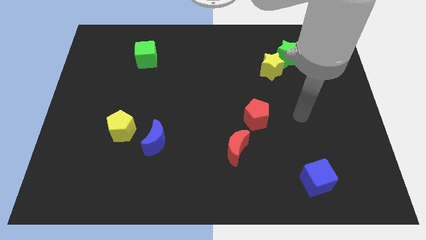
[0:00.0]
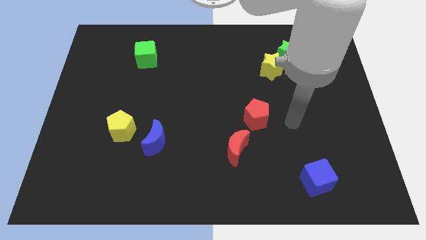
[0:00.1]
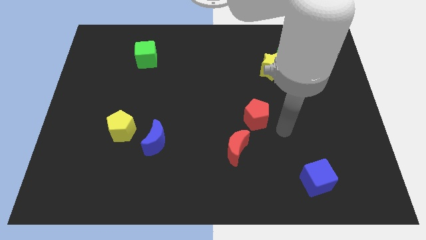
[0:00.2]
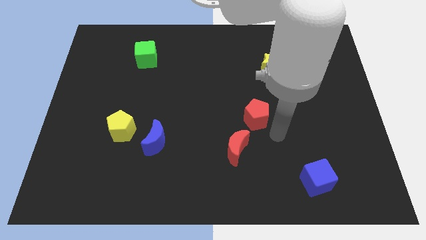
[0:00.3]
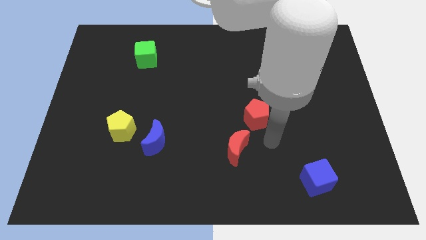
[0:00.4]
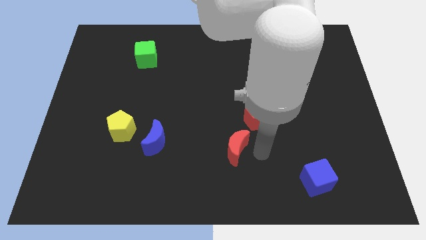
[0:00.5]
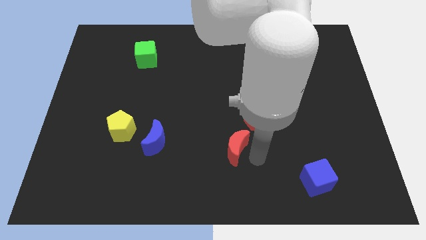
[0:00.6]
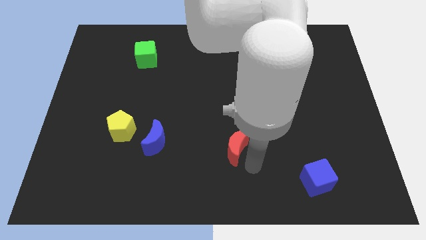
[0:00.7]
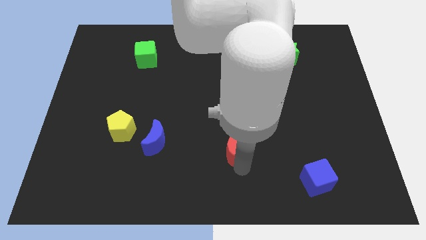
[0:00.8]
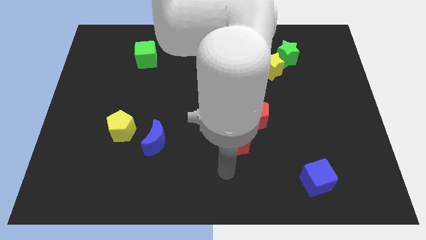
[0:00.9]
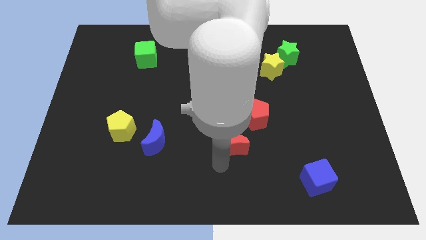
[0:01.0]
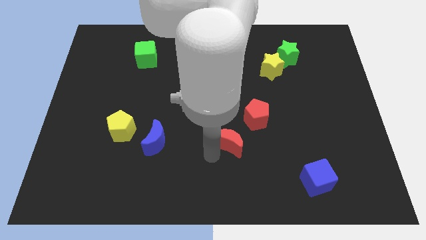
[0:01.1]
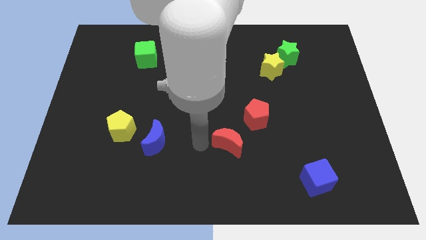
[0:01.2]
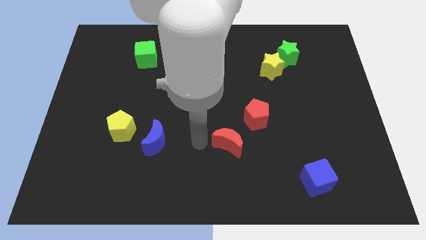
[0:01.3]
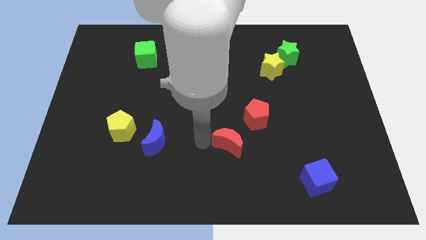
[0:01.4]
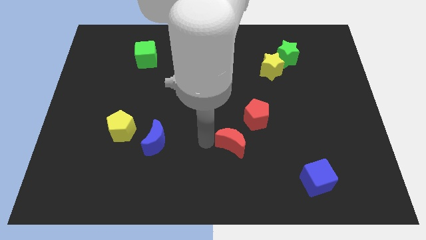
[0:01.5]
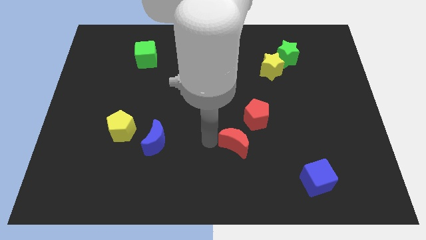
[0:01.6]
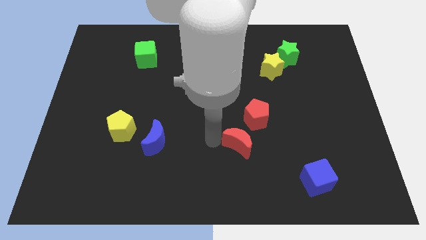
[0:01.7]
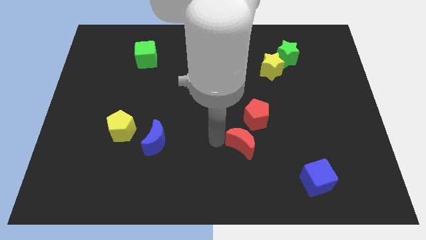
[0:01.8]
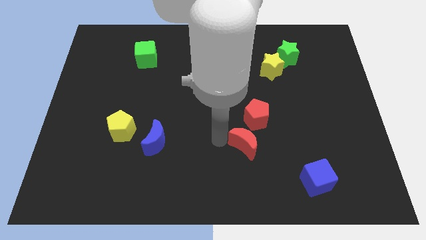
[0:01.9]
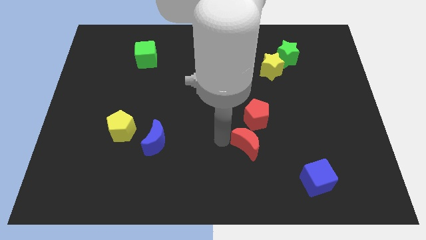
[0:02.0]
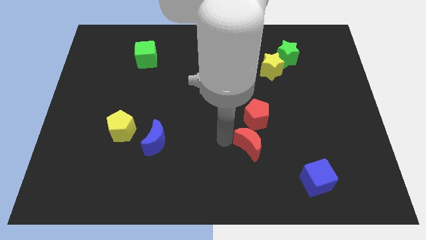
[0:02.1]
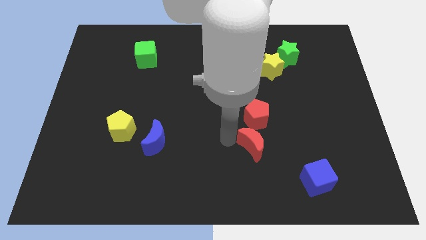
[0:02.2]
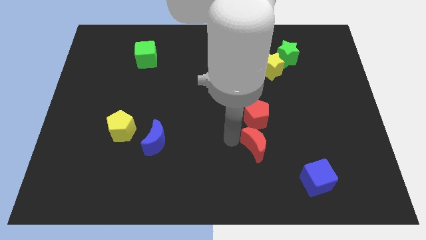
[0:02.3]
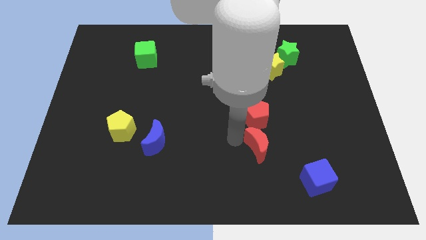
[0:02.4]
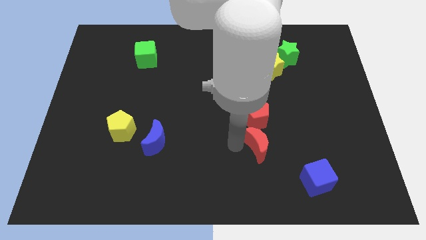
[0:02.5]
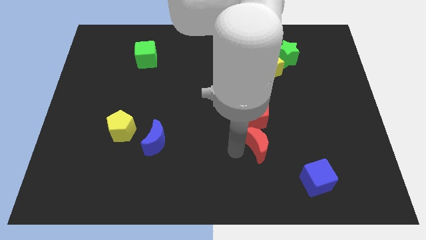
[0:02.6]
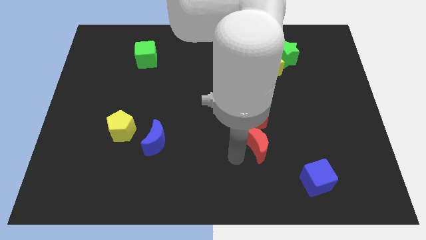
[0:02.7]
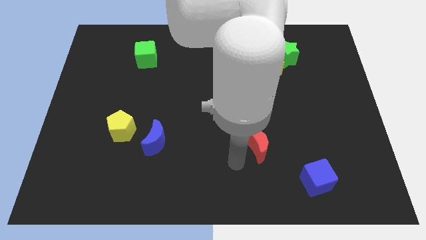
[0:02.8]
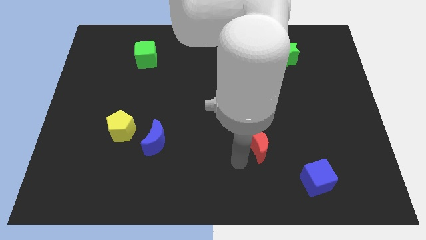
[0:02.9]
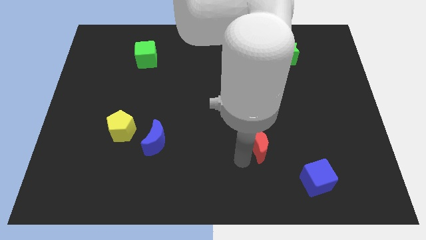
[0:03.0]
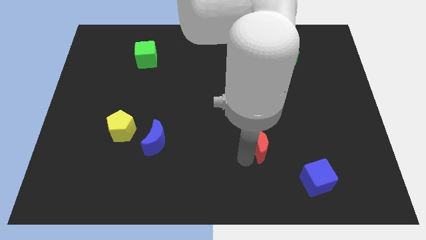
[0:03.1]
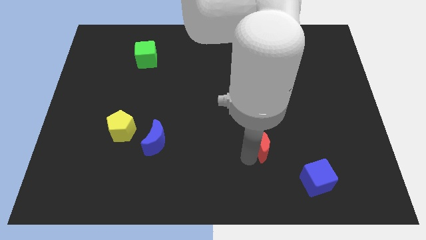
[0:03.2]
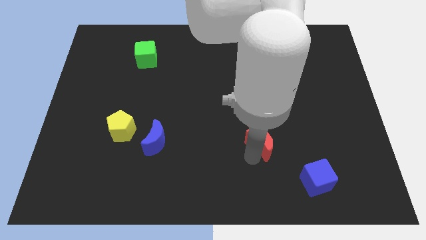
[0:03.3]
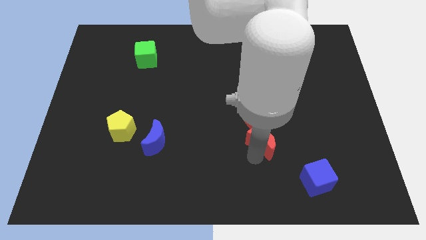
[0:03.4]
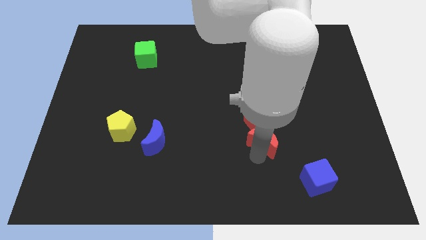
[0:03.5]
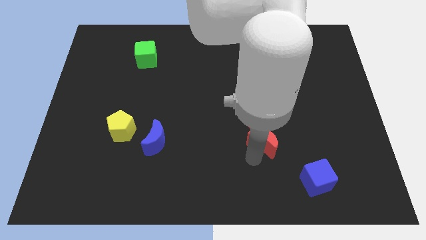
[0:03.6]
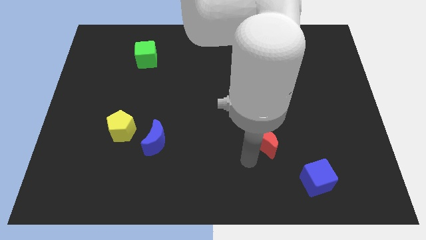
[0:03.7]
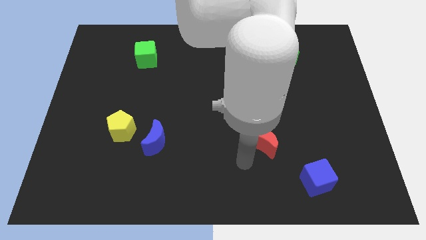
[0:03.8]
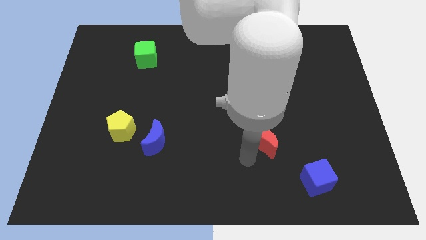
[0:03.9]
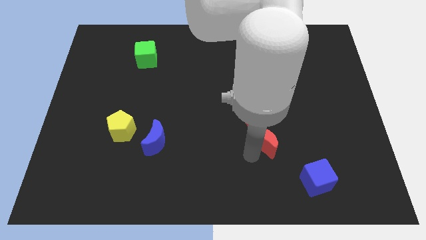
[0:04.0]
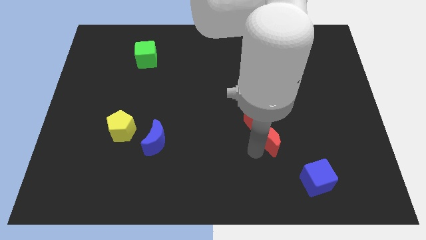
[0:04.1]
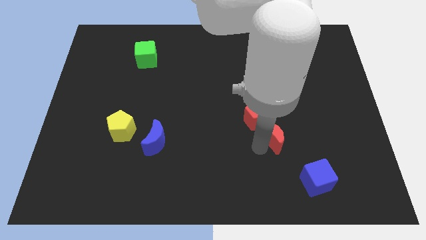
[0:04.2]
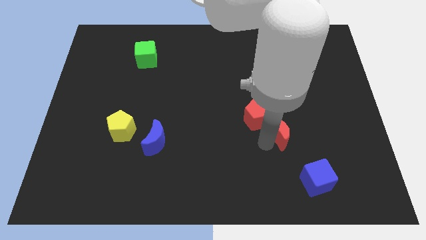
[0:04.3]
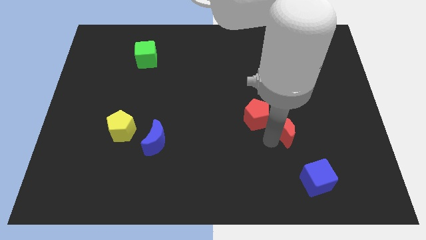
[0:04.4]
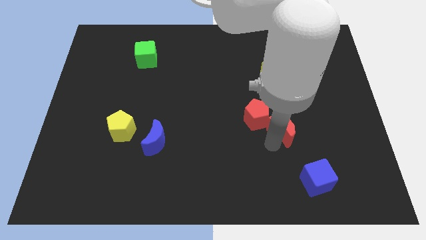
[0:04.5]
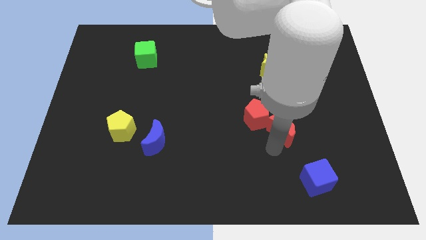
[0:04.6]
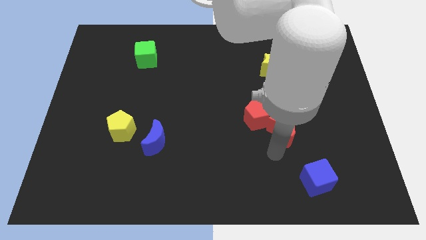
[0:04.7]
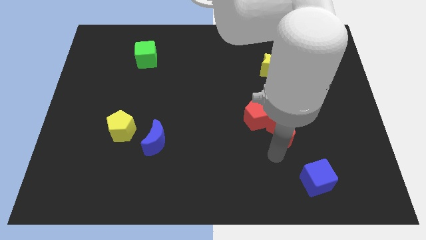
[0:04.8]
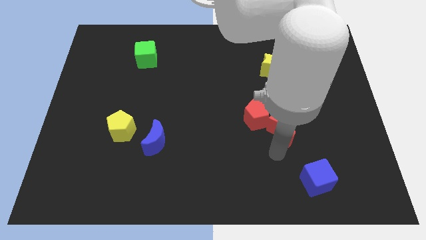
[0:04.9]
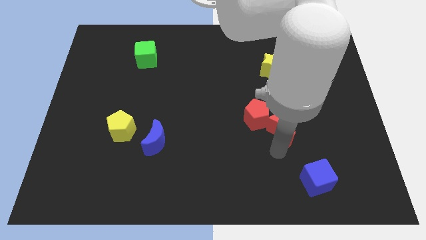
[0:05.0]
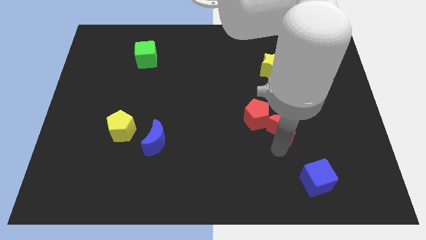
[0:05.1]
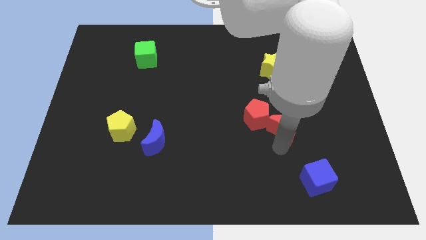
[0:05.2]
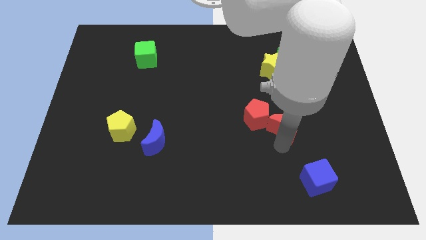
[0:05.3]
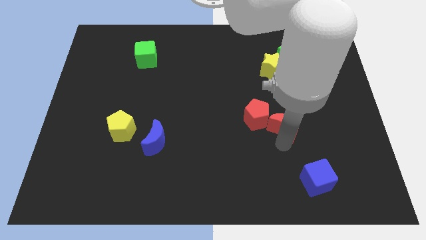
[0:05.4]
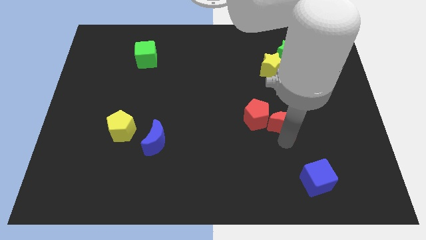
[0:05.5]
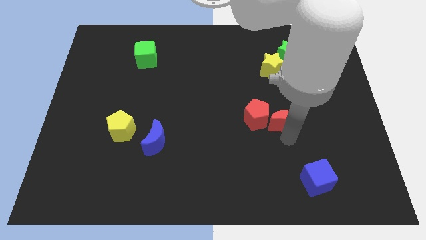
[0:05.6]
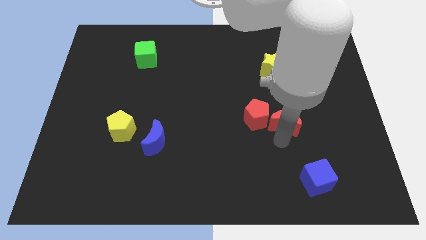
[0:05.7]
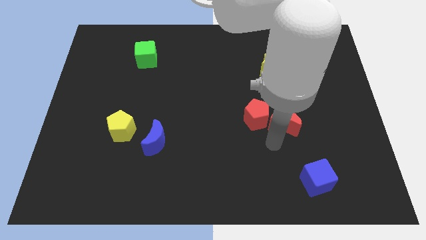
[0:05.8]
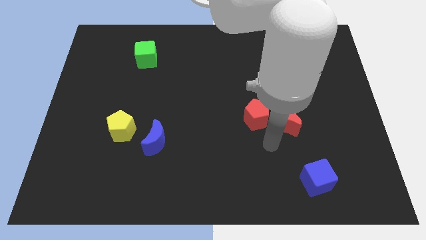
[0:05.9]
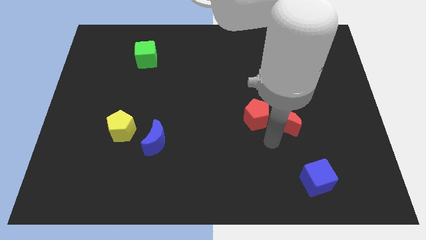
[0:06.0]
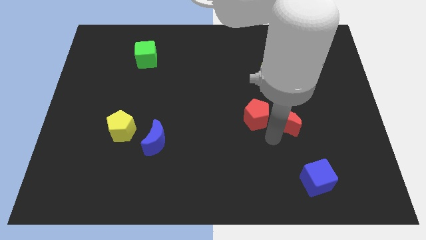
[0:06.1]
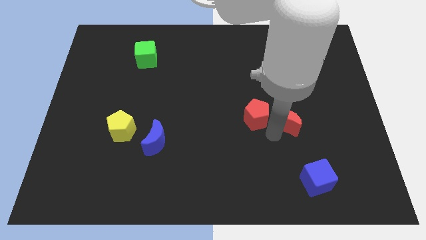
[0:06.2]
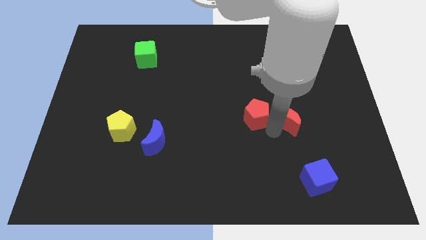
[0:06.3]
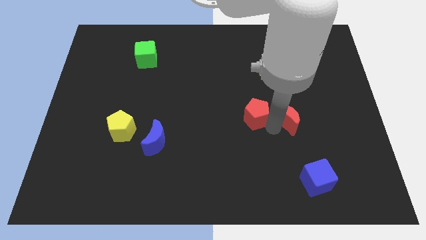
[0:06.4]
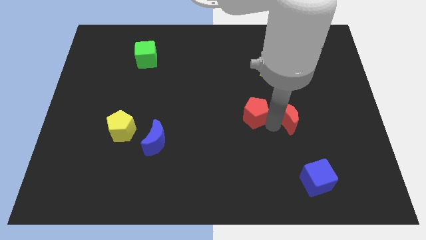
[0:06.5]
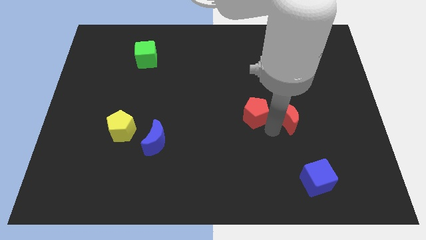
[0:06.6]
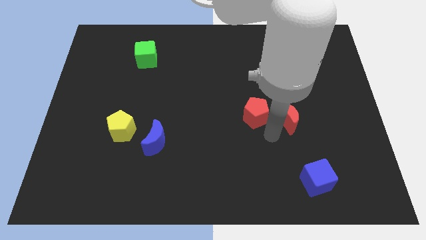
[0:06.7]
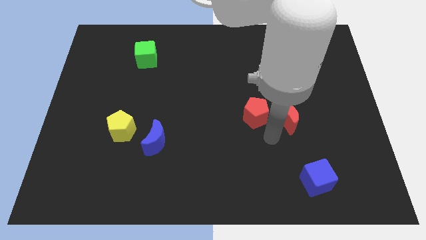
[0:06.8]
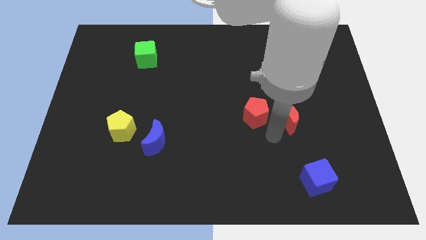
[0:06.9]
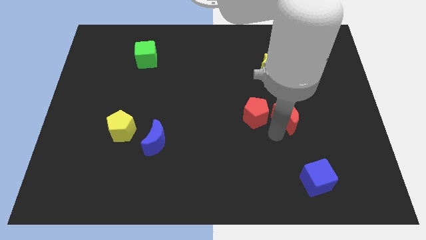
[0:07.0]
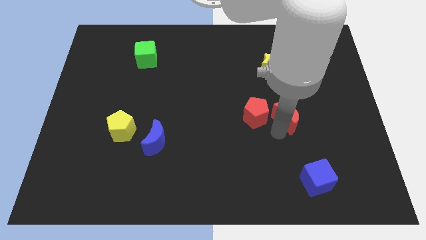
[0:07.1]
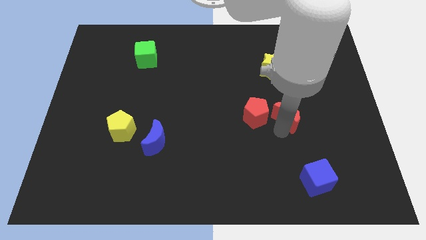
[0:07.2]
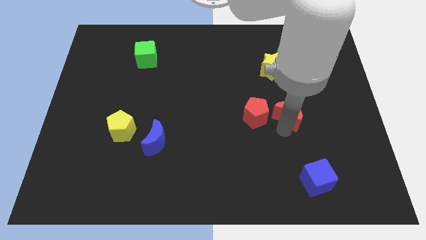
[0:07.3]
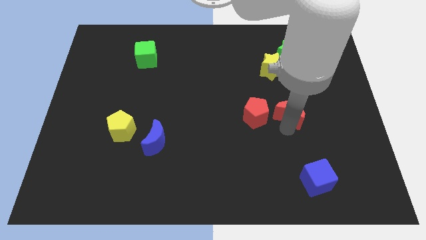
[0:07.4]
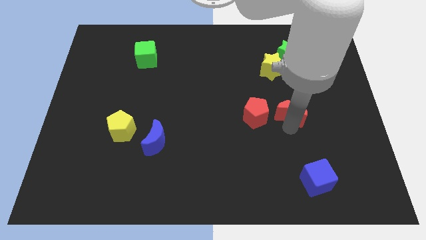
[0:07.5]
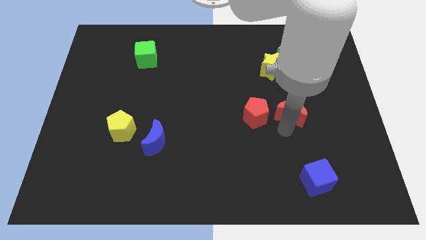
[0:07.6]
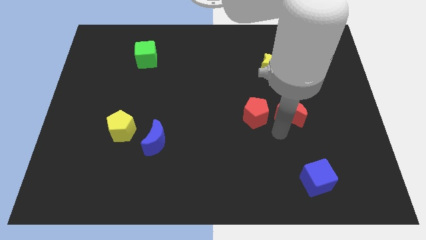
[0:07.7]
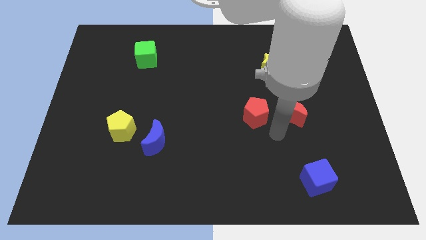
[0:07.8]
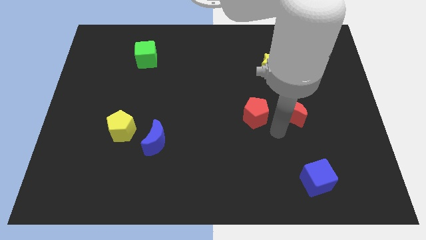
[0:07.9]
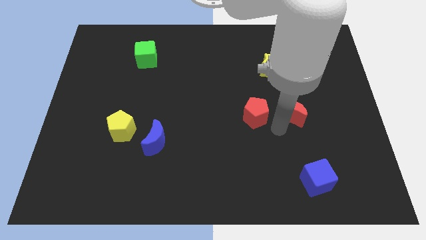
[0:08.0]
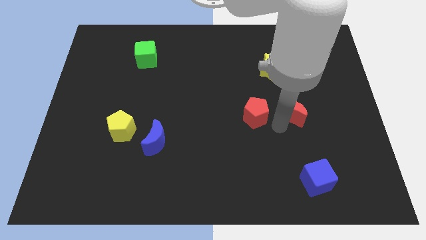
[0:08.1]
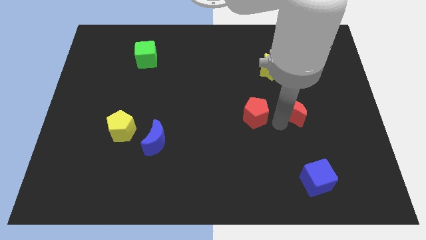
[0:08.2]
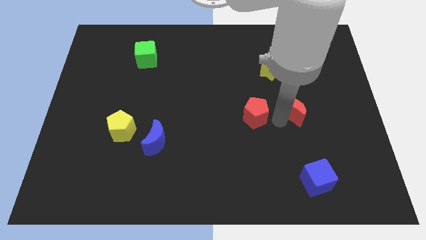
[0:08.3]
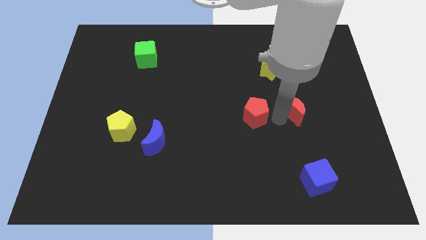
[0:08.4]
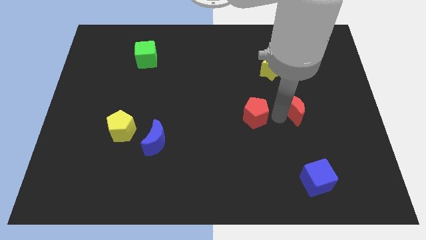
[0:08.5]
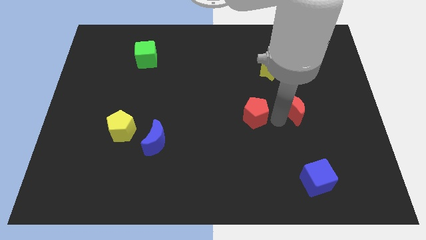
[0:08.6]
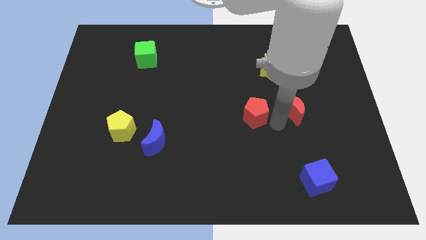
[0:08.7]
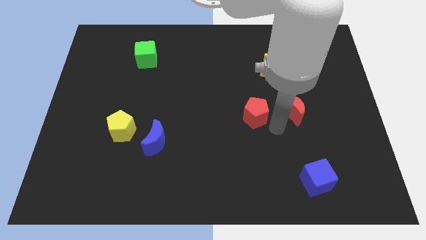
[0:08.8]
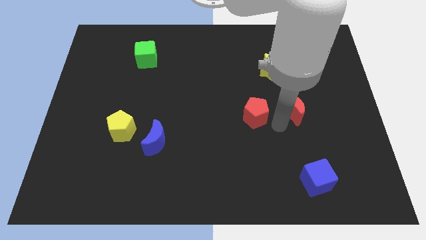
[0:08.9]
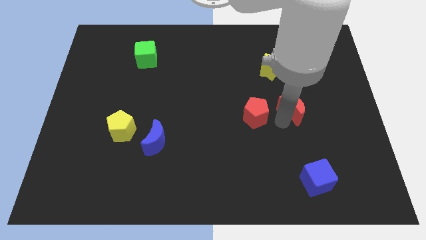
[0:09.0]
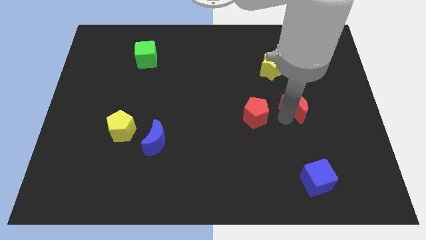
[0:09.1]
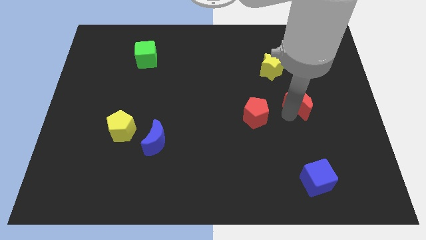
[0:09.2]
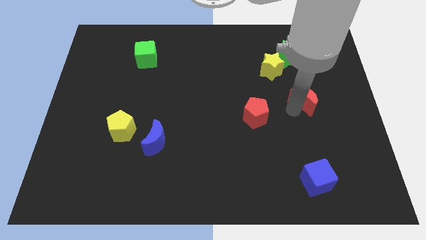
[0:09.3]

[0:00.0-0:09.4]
slide the red moon upwards and then right
